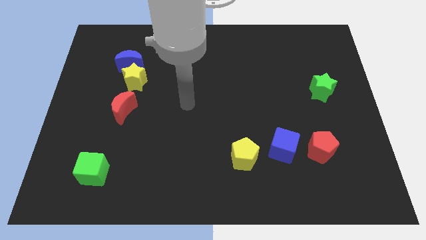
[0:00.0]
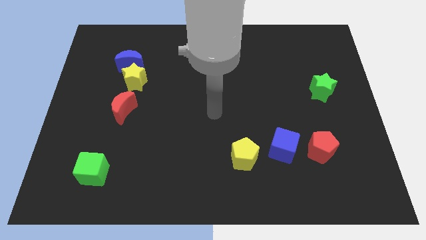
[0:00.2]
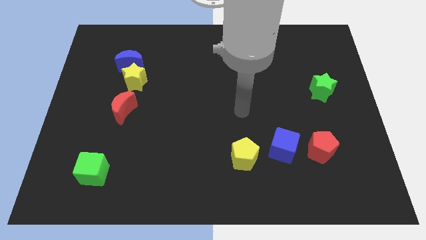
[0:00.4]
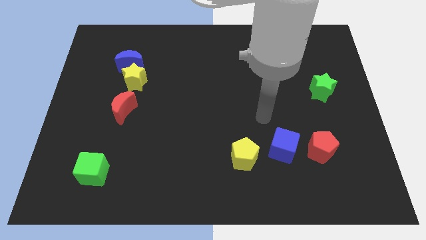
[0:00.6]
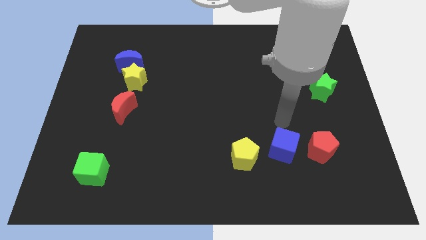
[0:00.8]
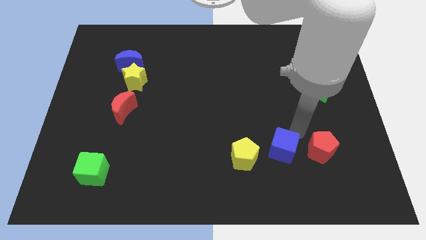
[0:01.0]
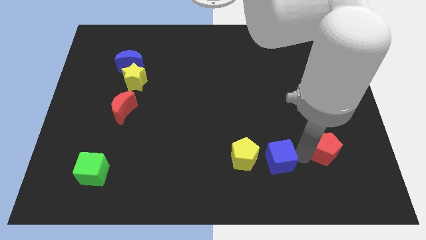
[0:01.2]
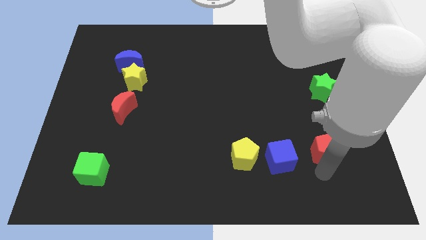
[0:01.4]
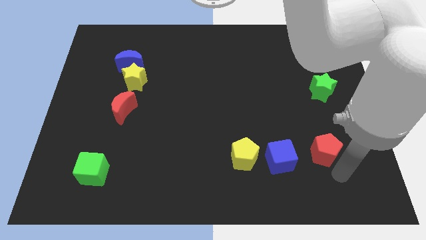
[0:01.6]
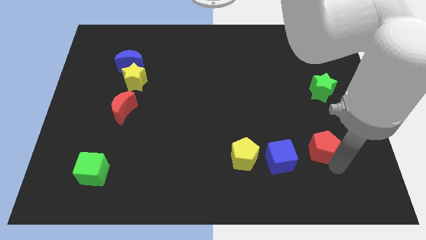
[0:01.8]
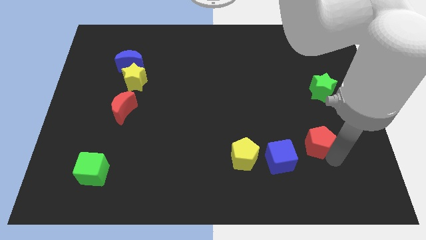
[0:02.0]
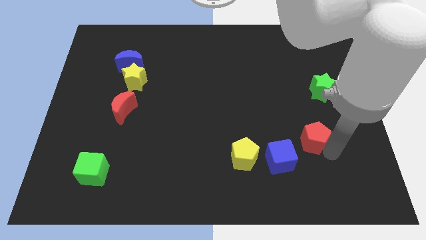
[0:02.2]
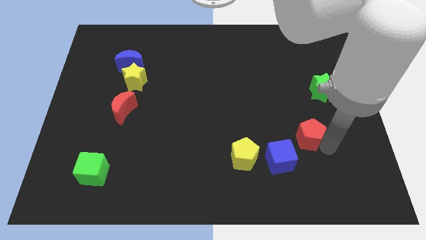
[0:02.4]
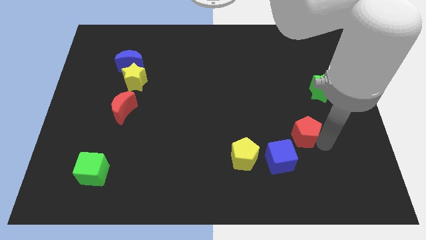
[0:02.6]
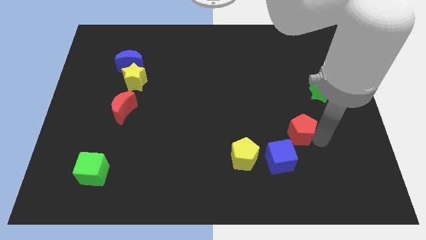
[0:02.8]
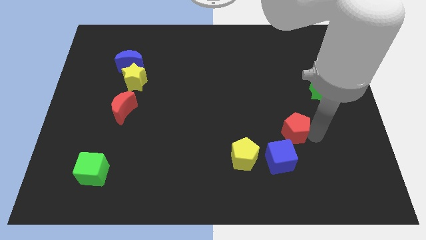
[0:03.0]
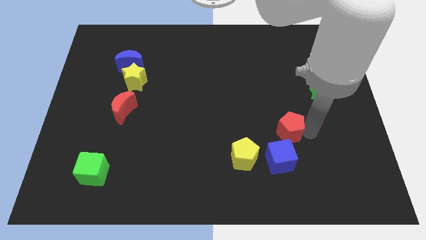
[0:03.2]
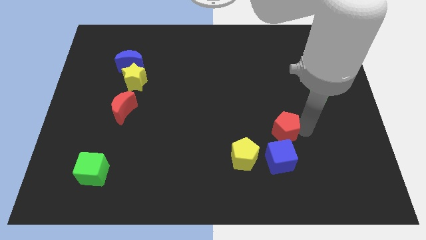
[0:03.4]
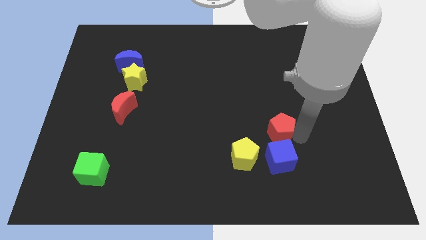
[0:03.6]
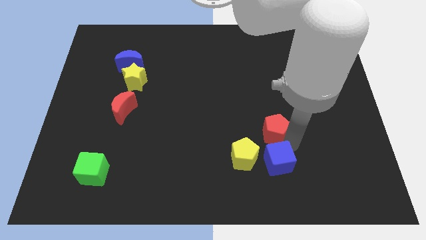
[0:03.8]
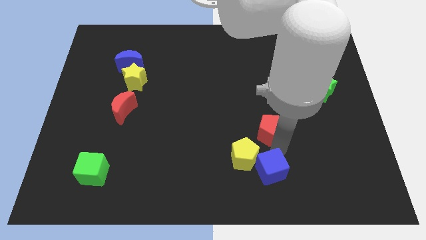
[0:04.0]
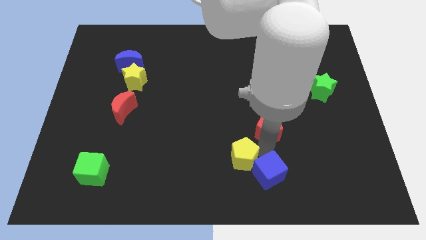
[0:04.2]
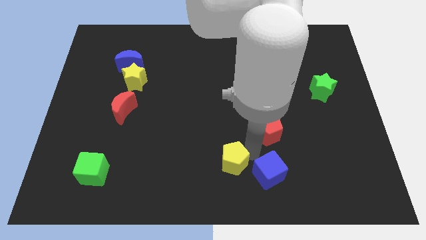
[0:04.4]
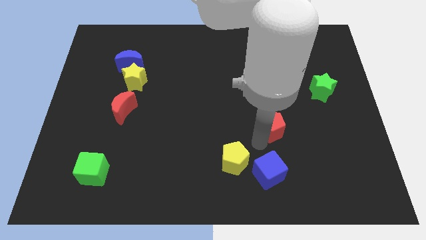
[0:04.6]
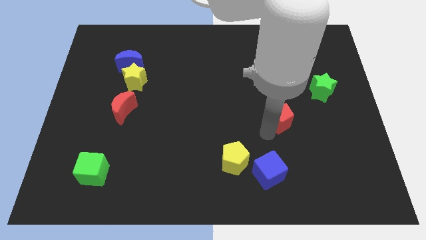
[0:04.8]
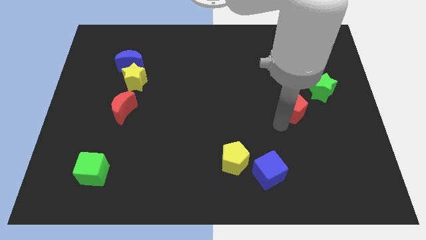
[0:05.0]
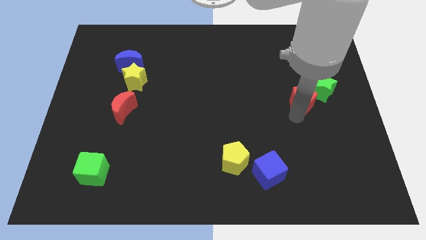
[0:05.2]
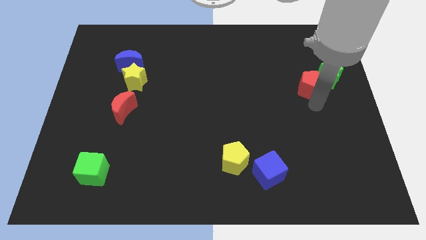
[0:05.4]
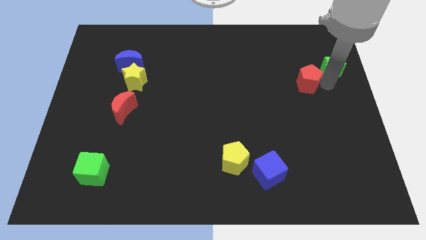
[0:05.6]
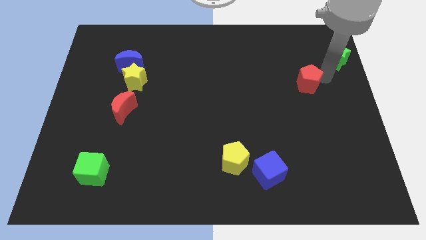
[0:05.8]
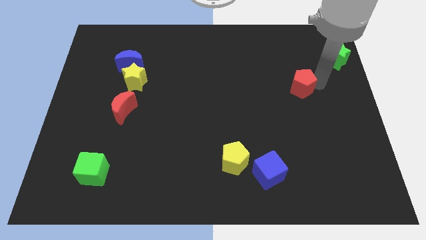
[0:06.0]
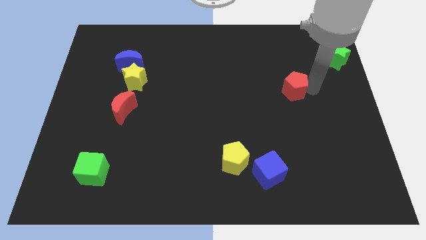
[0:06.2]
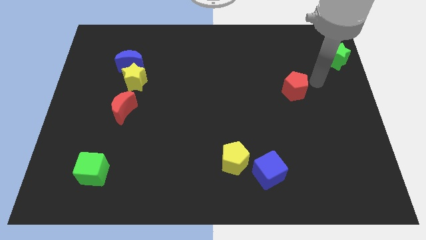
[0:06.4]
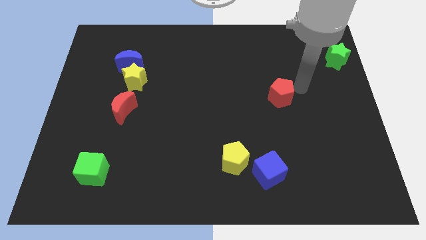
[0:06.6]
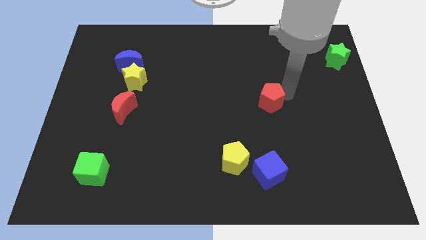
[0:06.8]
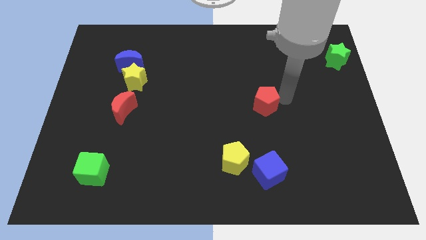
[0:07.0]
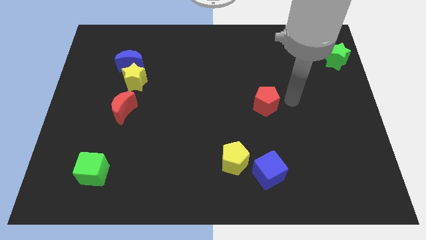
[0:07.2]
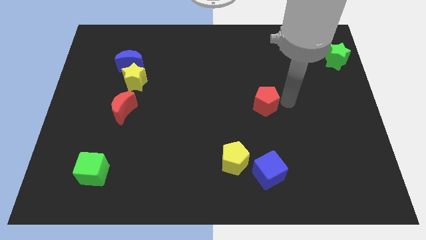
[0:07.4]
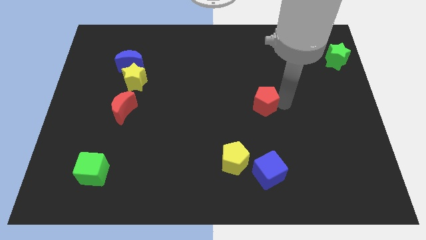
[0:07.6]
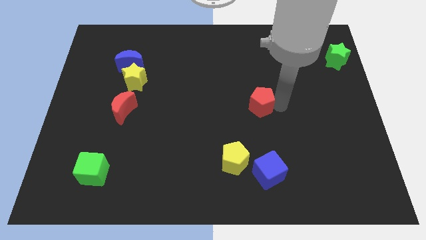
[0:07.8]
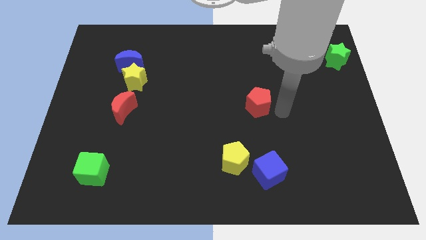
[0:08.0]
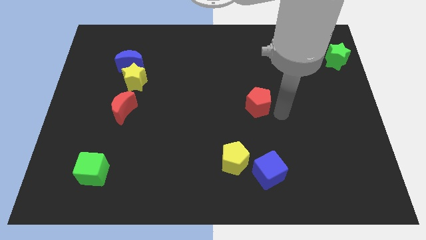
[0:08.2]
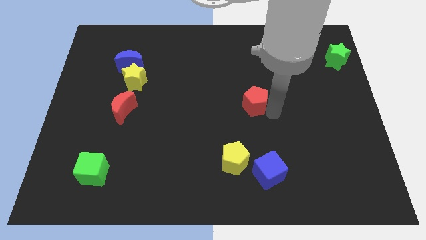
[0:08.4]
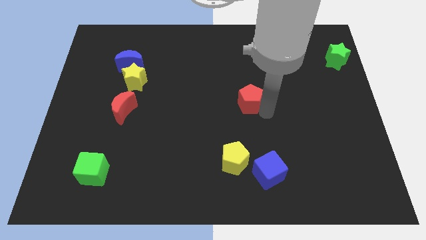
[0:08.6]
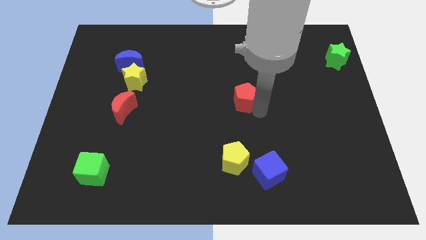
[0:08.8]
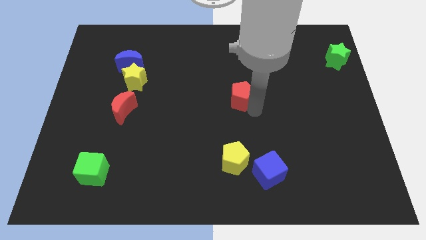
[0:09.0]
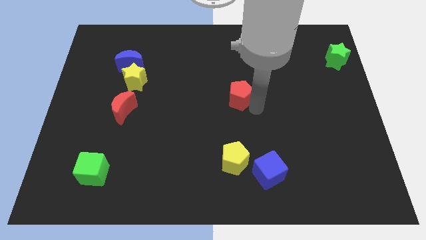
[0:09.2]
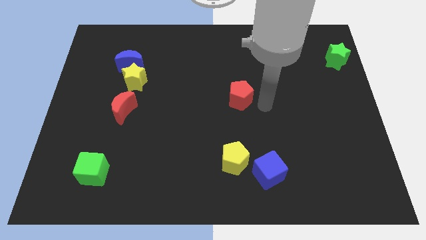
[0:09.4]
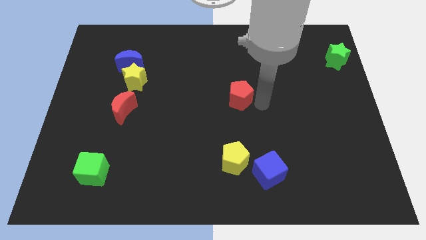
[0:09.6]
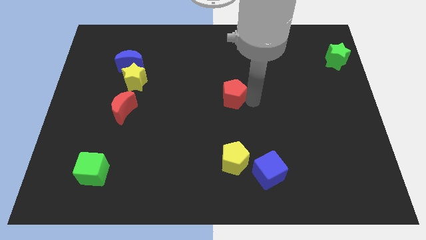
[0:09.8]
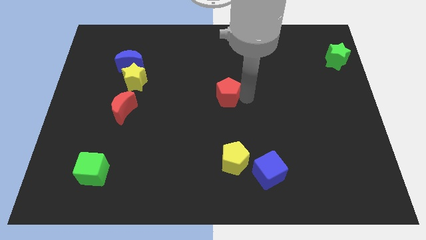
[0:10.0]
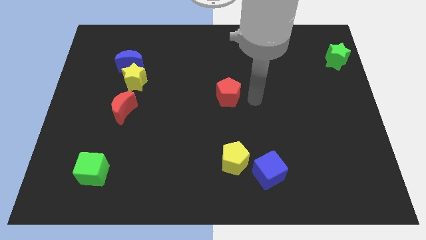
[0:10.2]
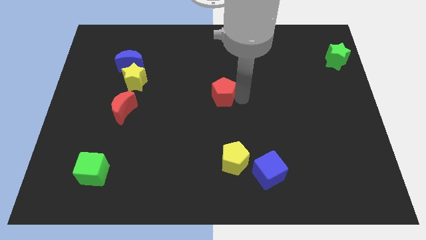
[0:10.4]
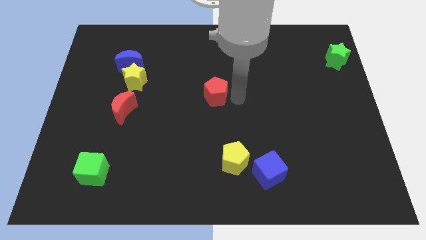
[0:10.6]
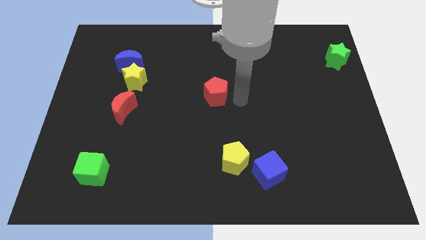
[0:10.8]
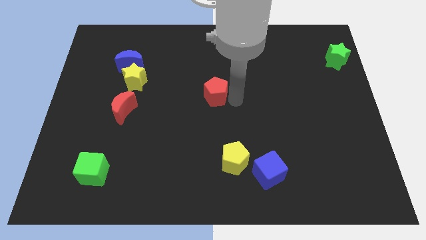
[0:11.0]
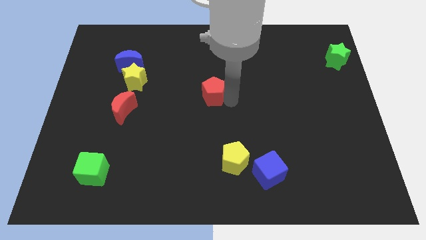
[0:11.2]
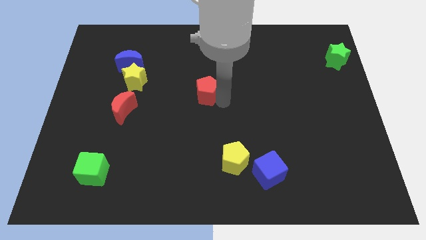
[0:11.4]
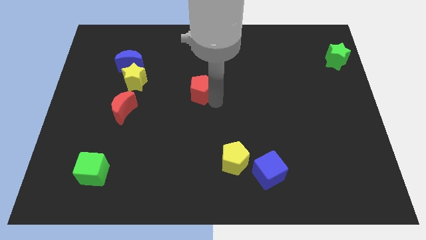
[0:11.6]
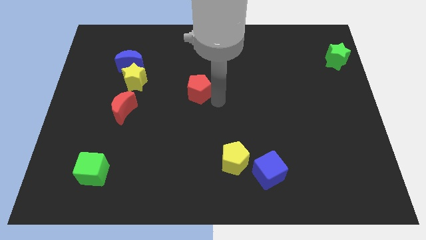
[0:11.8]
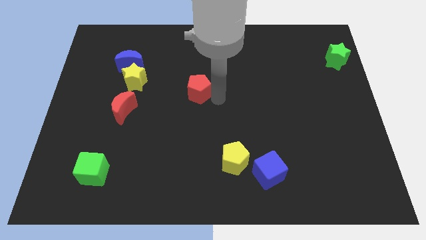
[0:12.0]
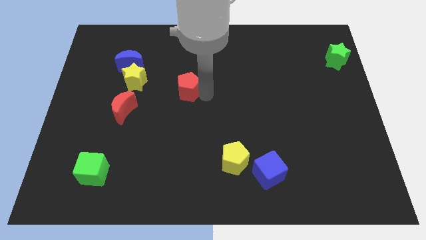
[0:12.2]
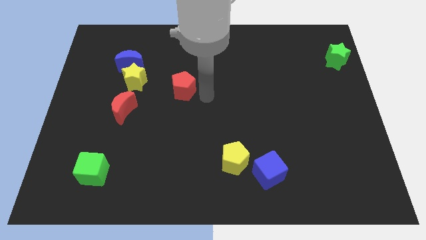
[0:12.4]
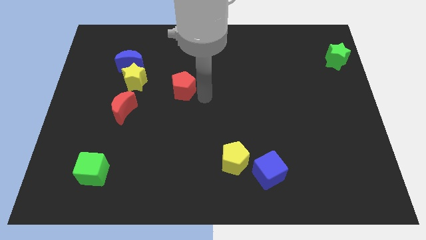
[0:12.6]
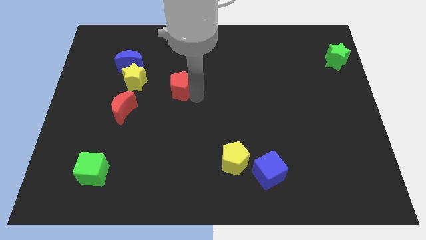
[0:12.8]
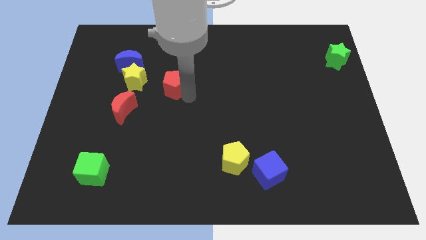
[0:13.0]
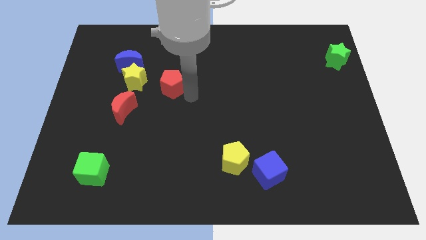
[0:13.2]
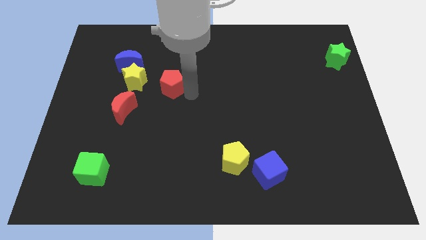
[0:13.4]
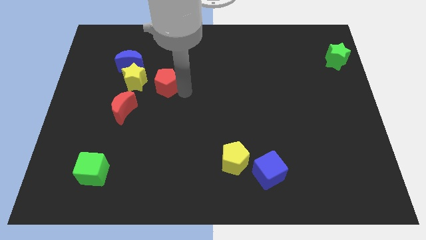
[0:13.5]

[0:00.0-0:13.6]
put the red pentagon diagonally down and to the right of the blue moon

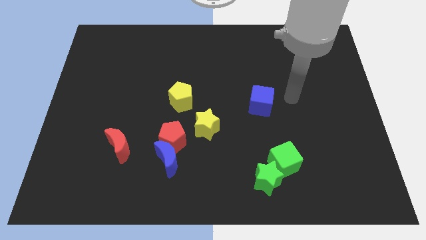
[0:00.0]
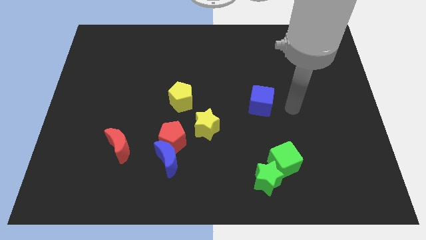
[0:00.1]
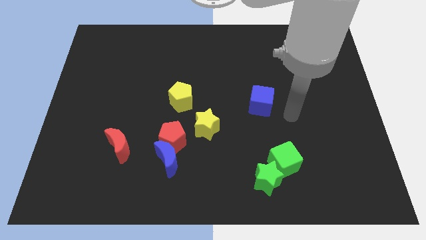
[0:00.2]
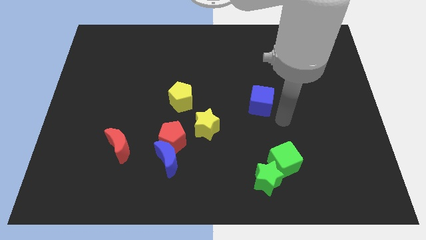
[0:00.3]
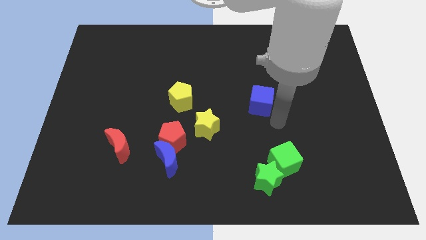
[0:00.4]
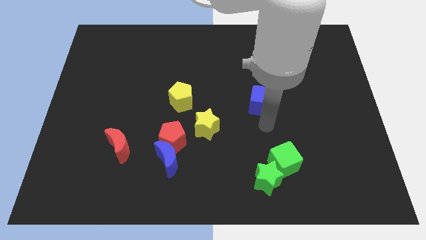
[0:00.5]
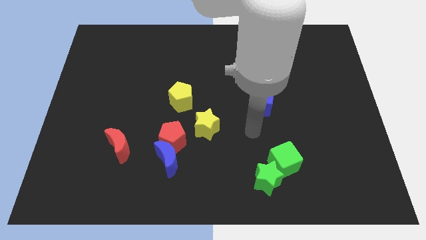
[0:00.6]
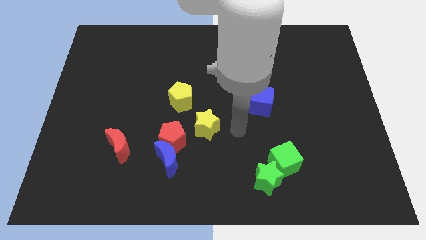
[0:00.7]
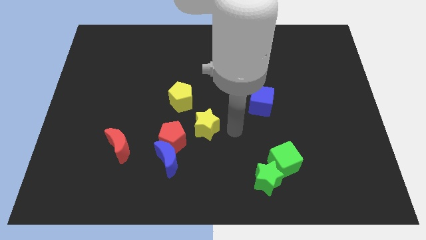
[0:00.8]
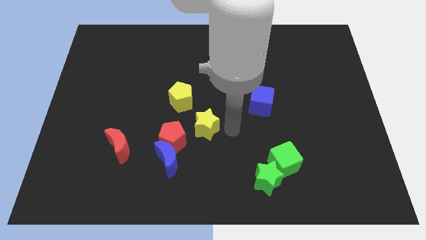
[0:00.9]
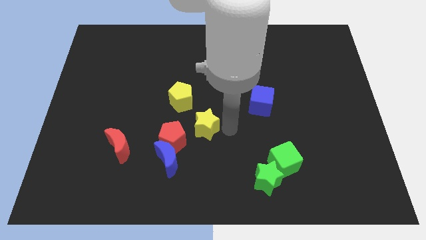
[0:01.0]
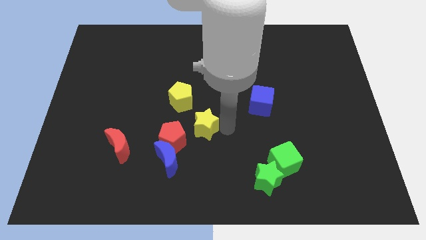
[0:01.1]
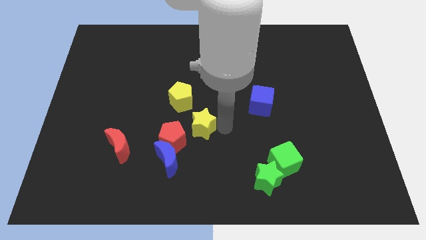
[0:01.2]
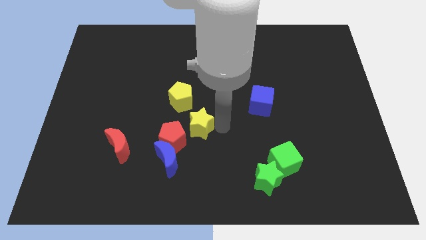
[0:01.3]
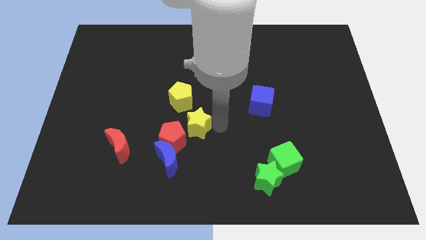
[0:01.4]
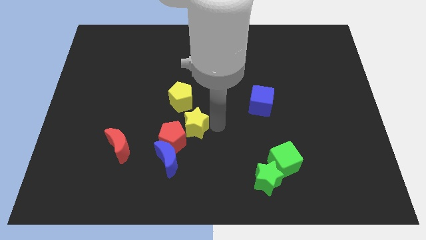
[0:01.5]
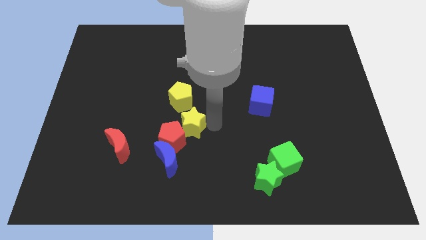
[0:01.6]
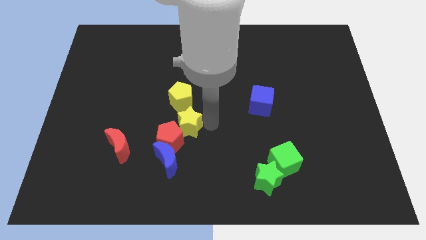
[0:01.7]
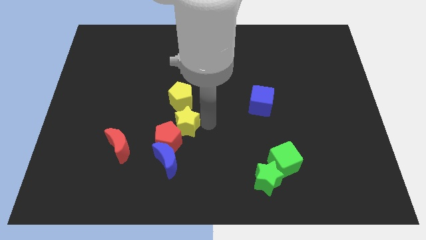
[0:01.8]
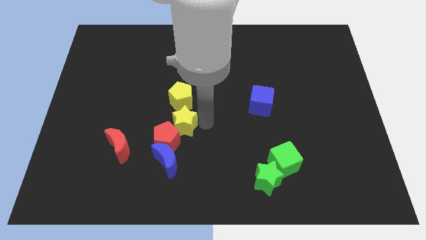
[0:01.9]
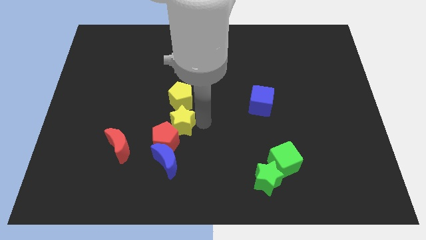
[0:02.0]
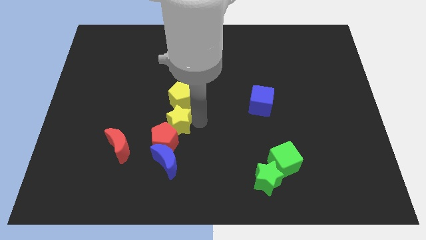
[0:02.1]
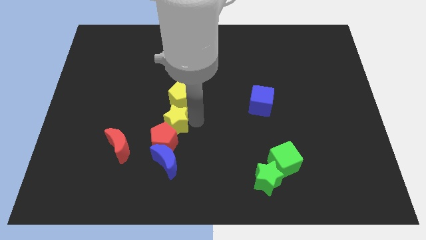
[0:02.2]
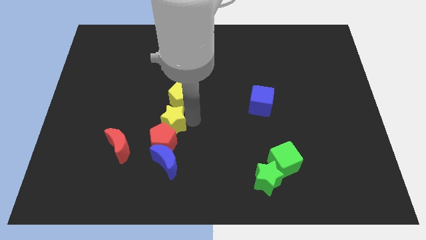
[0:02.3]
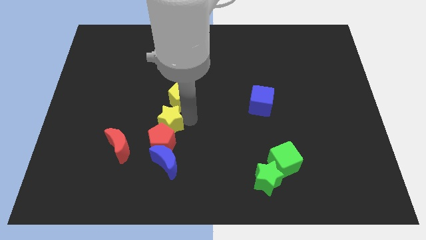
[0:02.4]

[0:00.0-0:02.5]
move the yellow star diagonally up and to the right of the red moon
